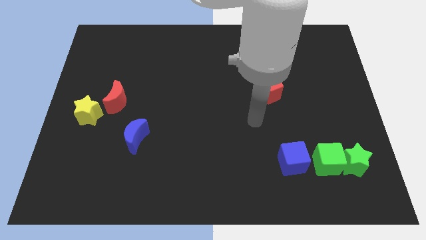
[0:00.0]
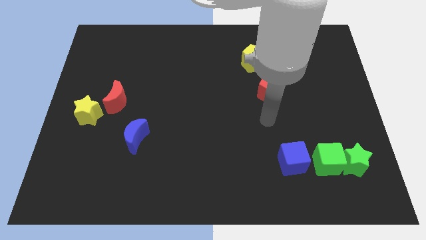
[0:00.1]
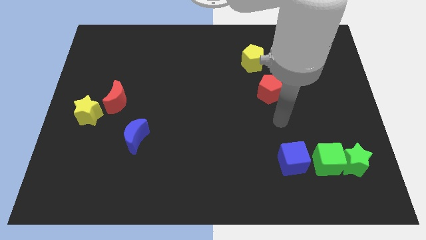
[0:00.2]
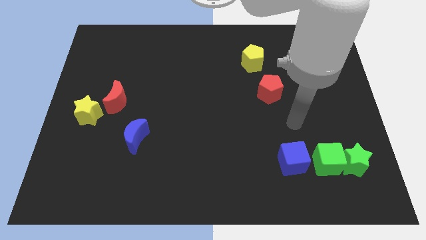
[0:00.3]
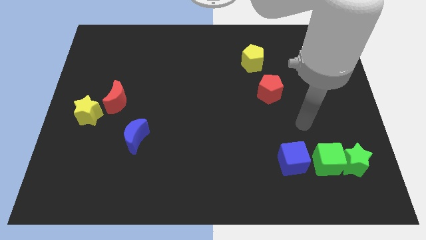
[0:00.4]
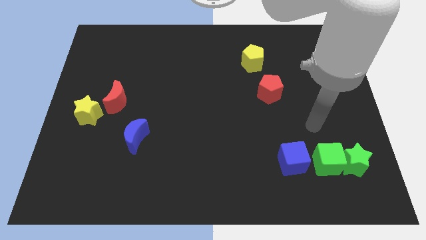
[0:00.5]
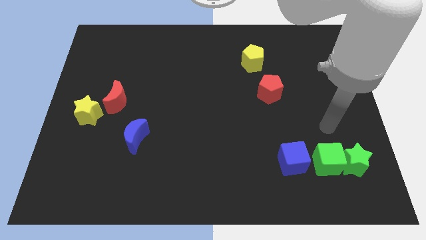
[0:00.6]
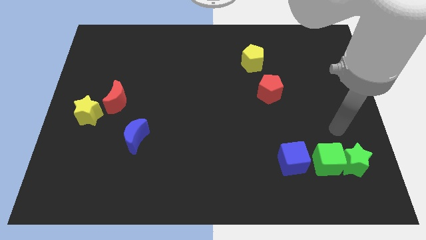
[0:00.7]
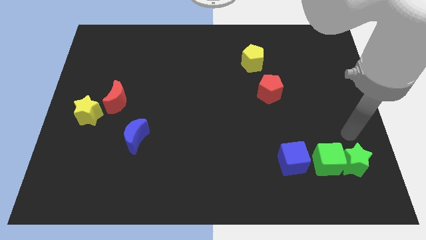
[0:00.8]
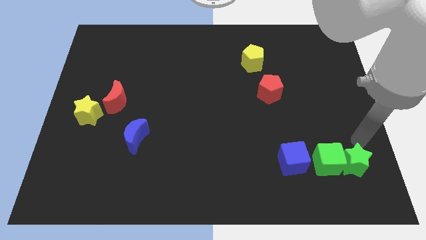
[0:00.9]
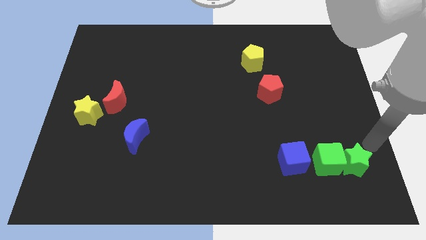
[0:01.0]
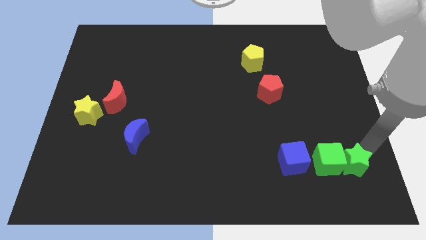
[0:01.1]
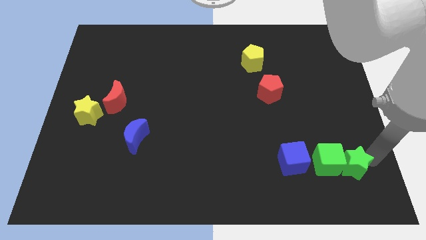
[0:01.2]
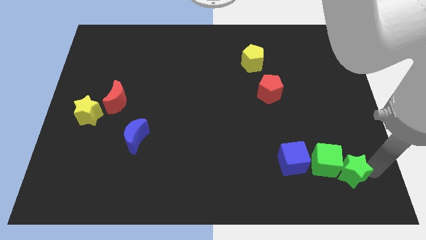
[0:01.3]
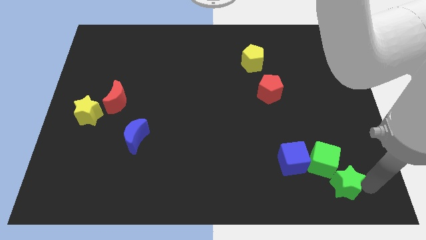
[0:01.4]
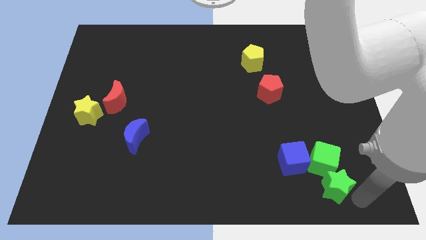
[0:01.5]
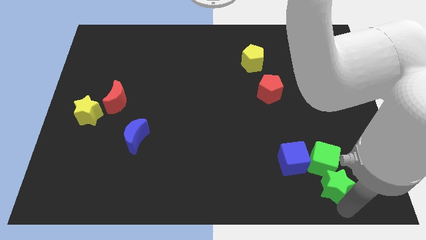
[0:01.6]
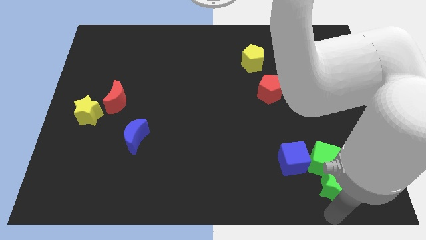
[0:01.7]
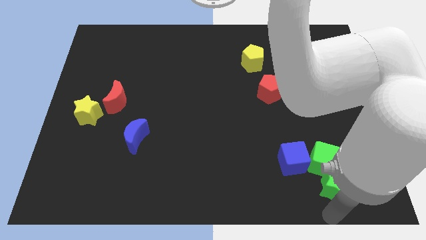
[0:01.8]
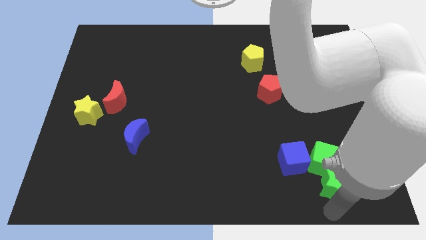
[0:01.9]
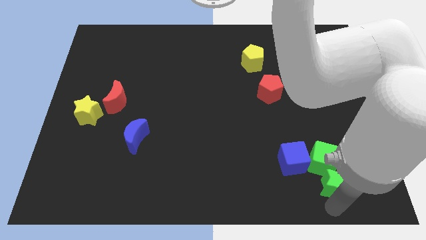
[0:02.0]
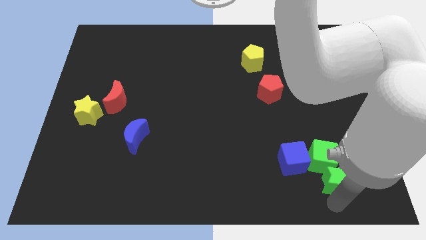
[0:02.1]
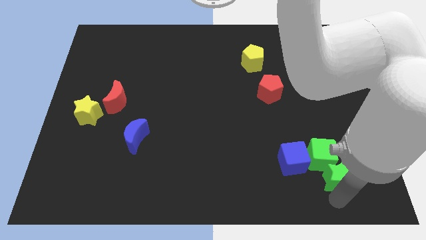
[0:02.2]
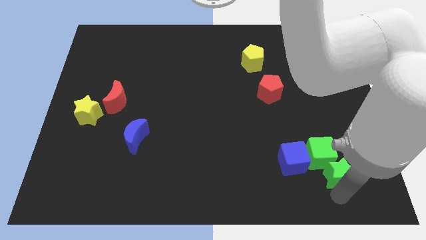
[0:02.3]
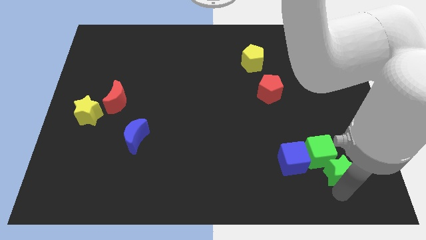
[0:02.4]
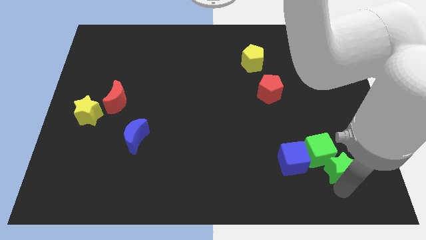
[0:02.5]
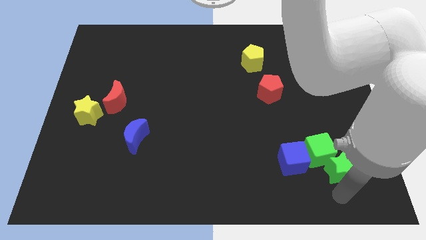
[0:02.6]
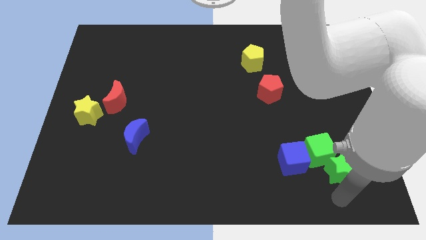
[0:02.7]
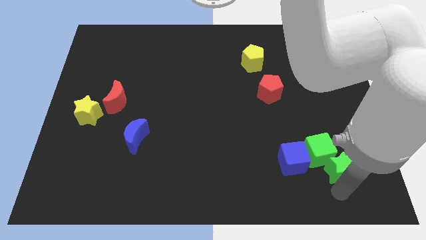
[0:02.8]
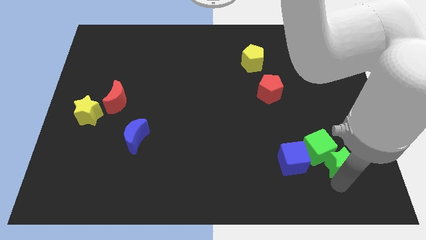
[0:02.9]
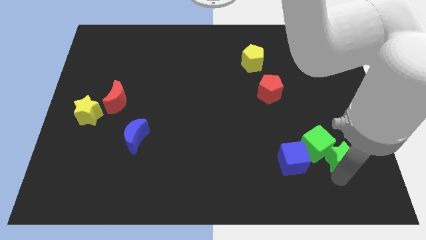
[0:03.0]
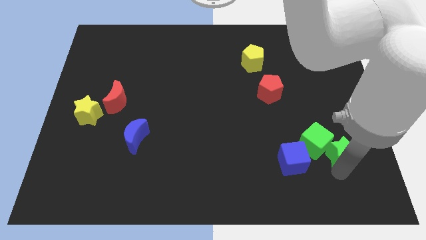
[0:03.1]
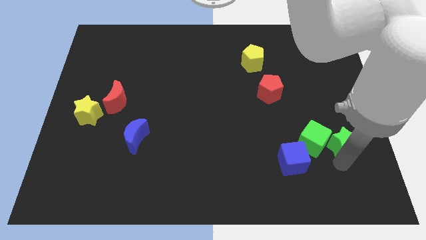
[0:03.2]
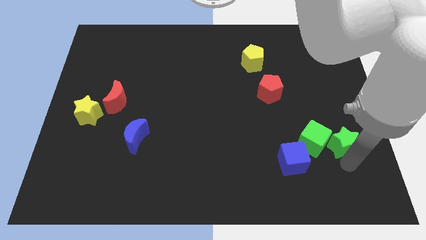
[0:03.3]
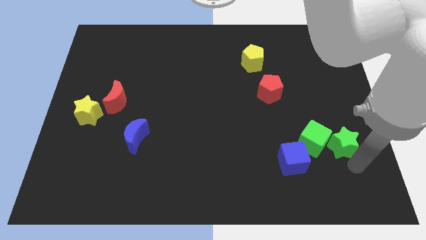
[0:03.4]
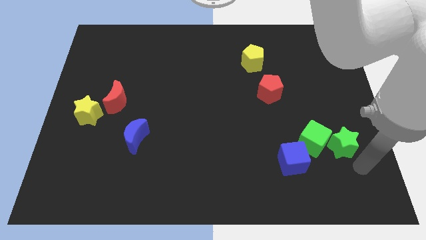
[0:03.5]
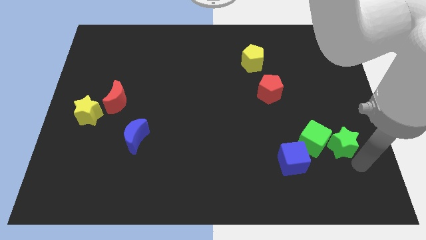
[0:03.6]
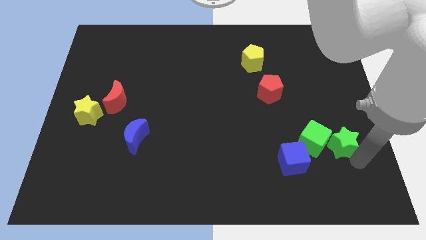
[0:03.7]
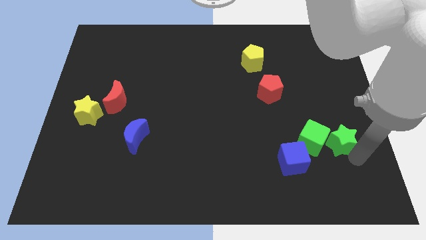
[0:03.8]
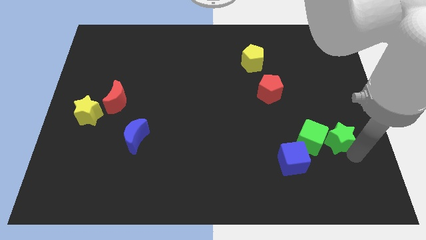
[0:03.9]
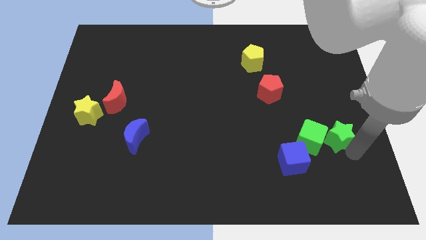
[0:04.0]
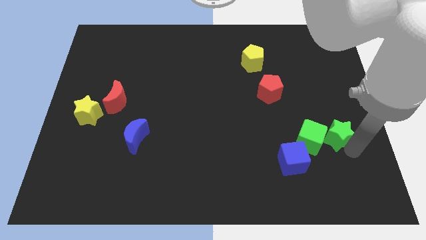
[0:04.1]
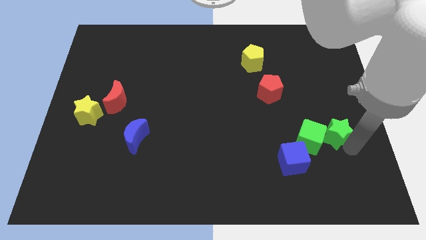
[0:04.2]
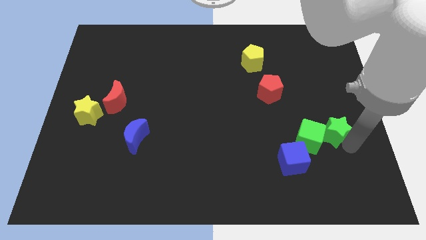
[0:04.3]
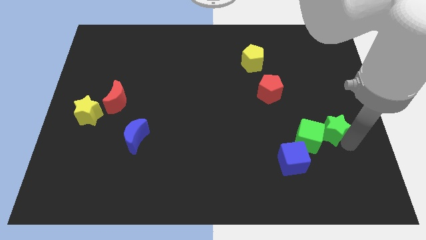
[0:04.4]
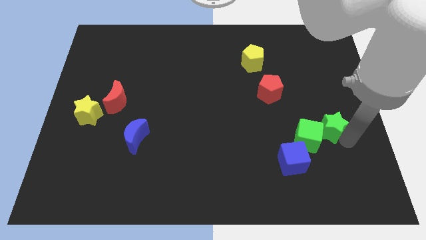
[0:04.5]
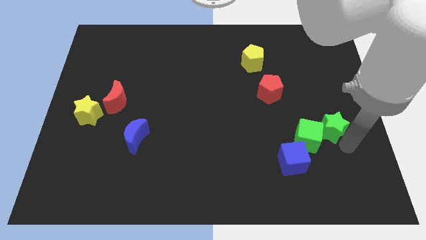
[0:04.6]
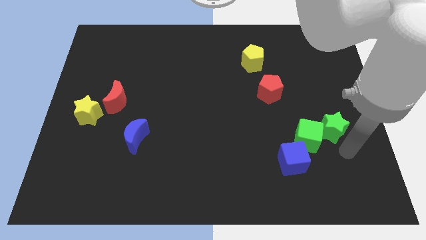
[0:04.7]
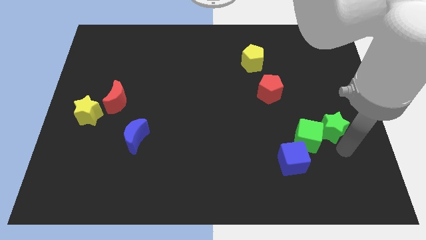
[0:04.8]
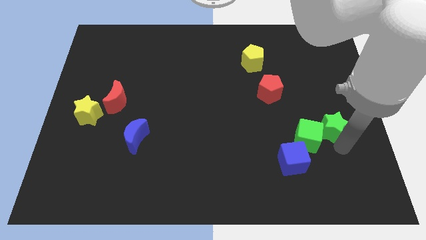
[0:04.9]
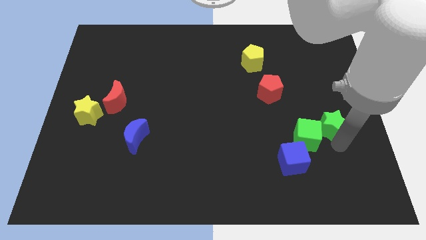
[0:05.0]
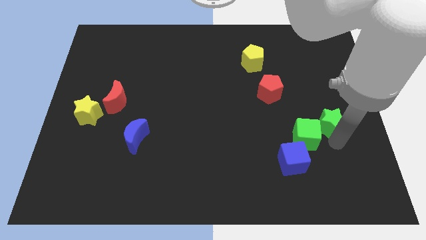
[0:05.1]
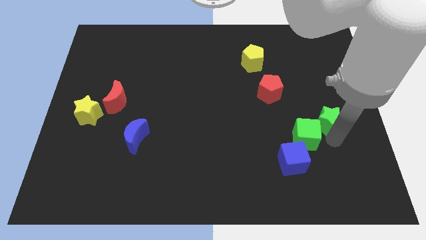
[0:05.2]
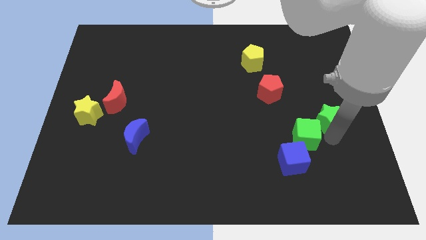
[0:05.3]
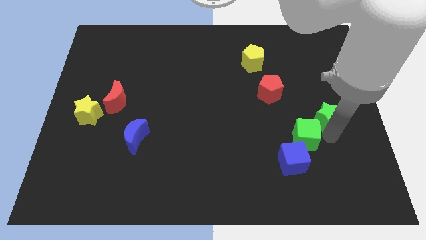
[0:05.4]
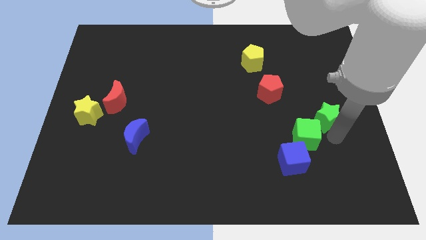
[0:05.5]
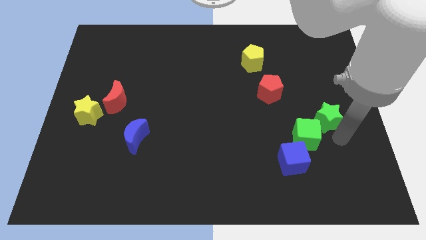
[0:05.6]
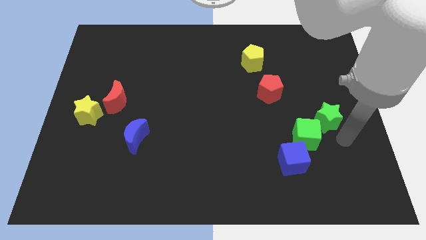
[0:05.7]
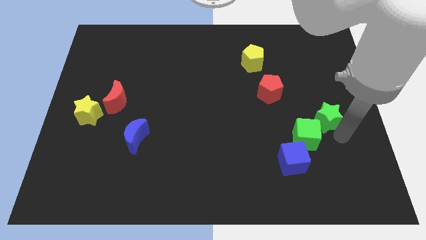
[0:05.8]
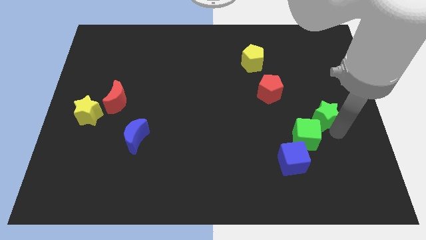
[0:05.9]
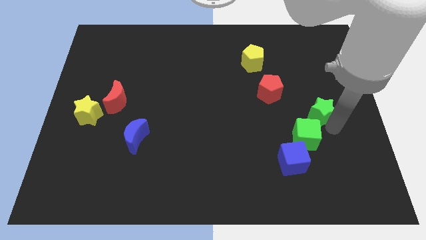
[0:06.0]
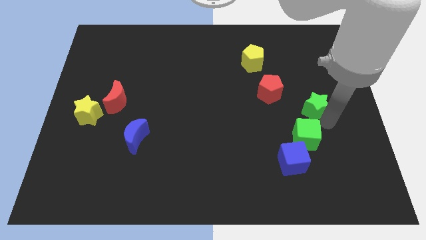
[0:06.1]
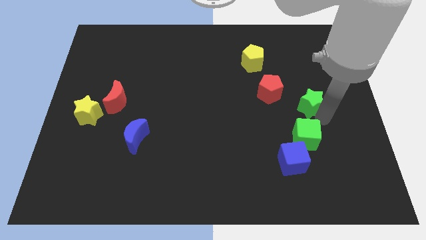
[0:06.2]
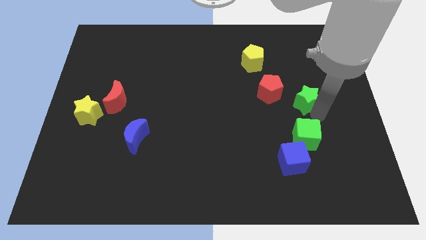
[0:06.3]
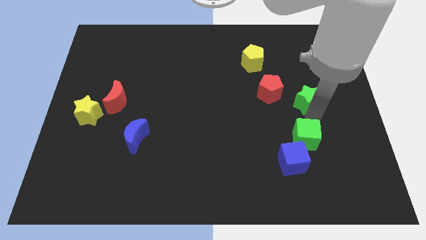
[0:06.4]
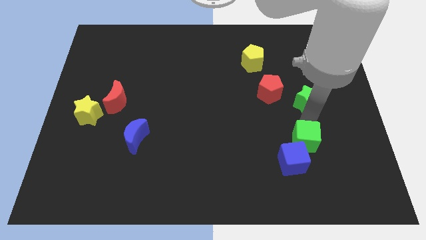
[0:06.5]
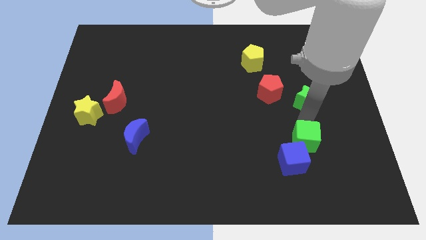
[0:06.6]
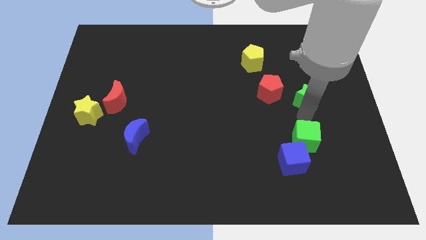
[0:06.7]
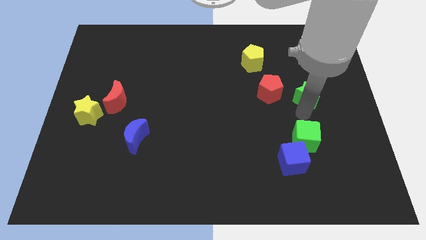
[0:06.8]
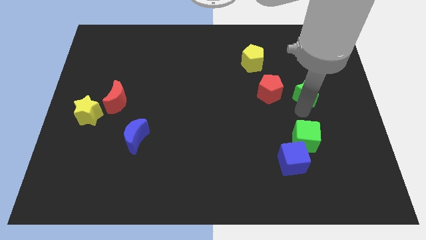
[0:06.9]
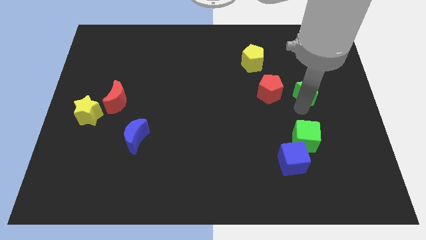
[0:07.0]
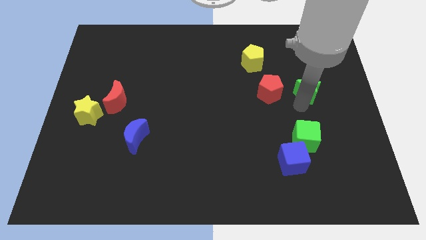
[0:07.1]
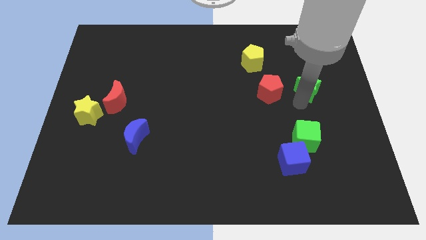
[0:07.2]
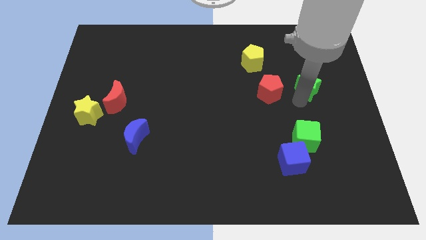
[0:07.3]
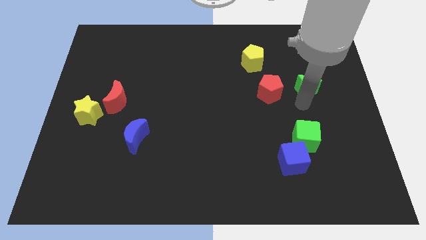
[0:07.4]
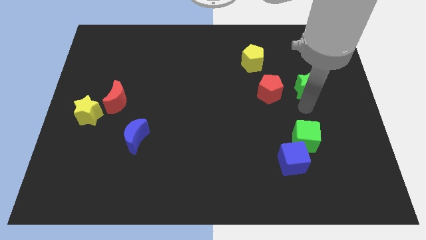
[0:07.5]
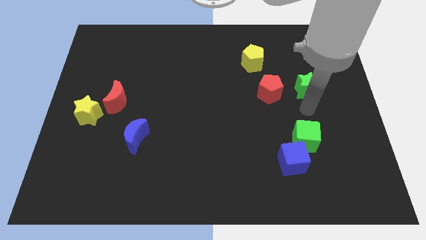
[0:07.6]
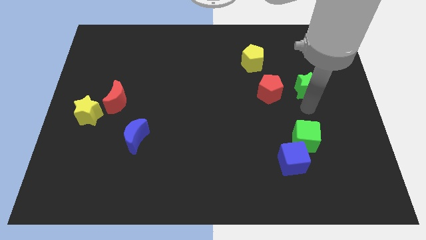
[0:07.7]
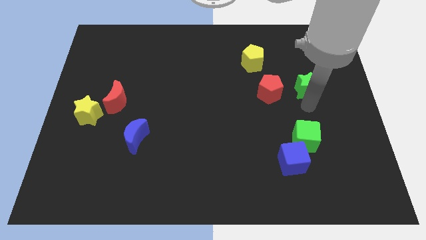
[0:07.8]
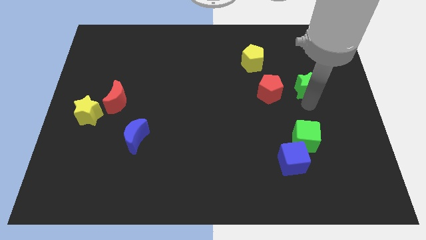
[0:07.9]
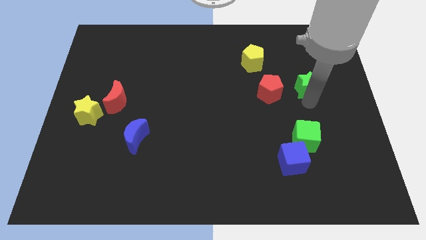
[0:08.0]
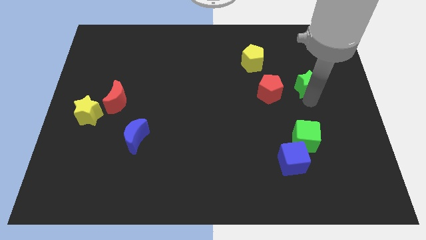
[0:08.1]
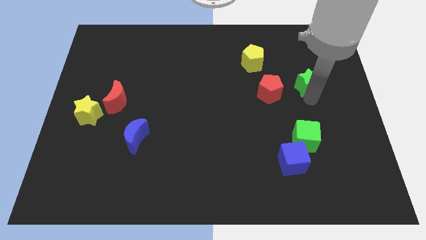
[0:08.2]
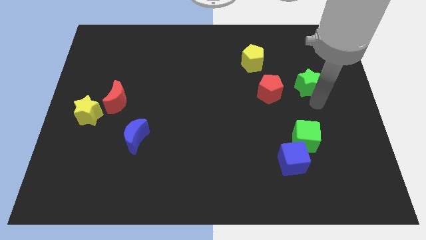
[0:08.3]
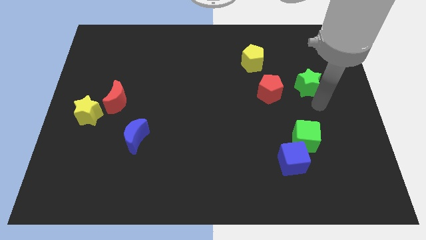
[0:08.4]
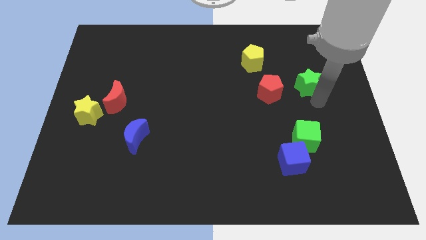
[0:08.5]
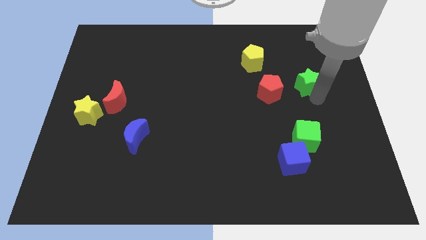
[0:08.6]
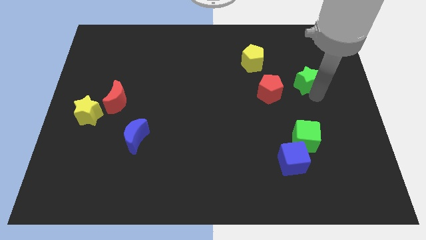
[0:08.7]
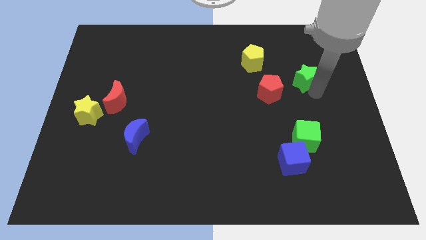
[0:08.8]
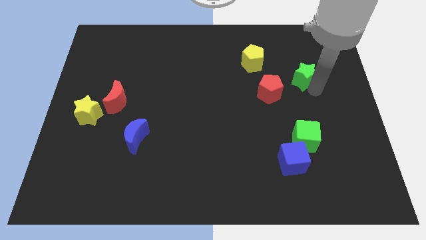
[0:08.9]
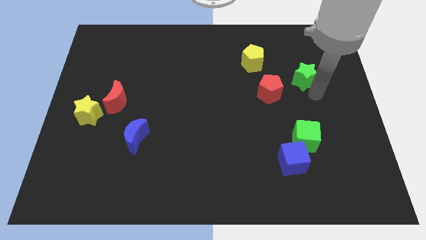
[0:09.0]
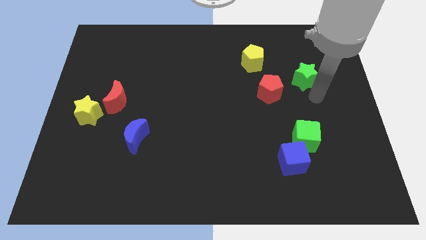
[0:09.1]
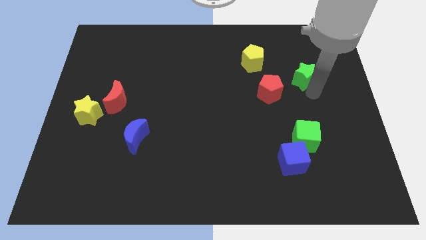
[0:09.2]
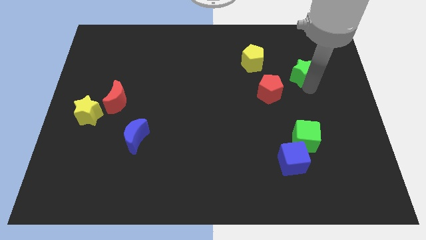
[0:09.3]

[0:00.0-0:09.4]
move the green star to the right of the yellow pentagon
